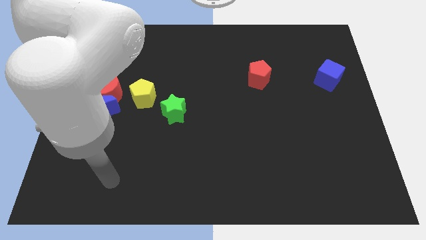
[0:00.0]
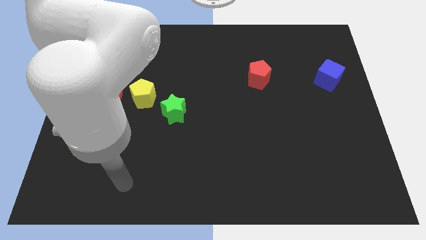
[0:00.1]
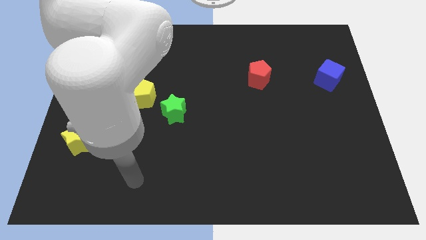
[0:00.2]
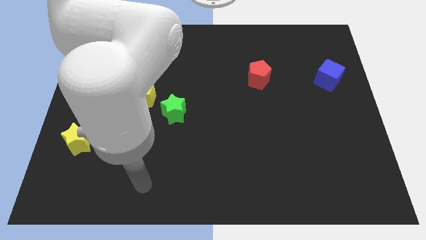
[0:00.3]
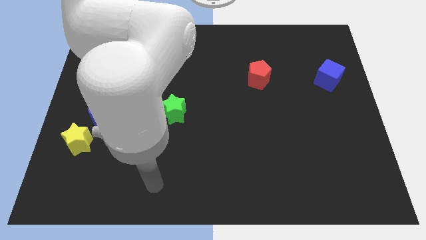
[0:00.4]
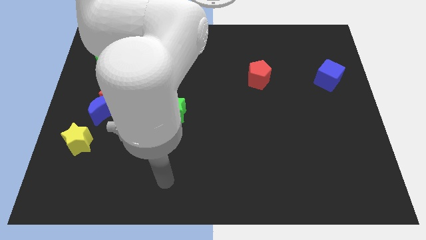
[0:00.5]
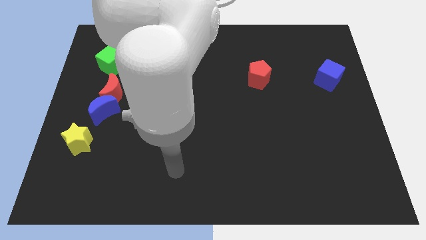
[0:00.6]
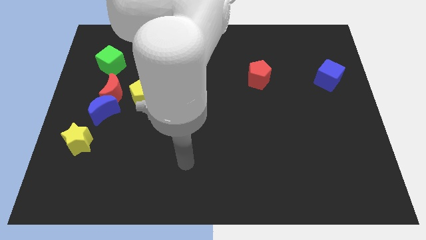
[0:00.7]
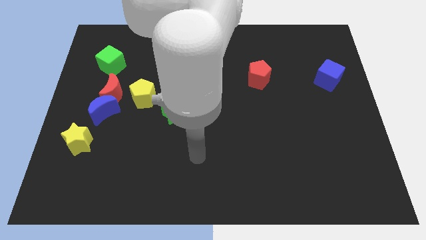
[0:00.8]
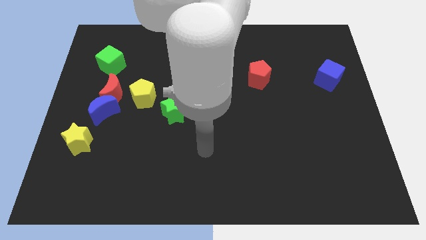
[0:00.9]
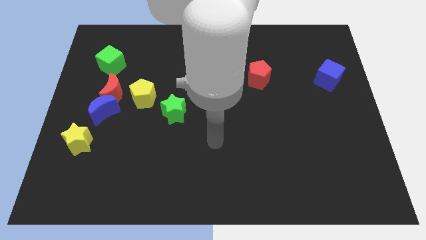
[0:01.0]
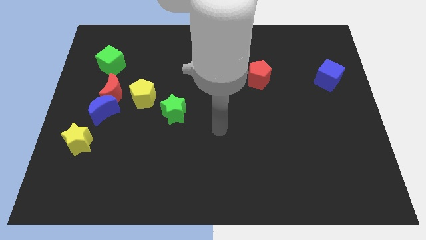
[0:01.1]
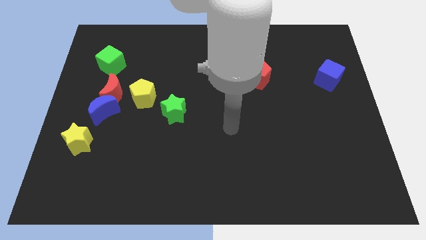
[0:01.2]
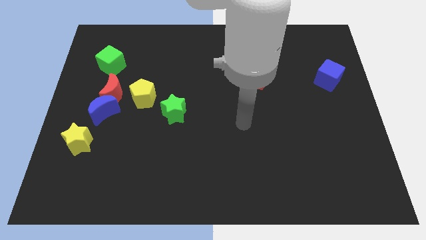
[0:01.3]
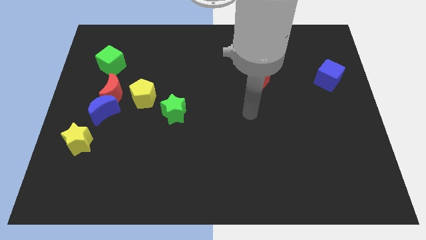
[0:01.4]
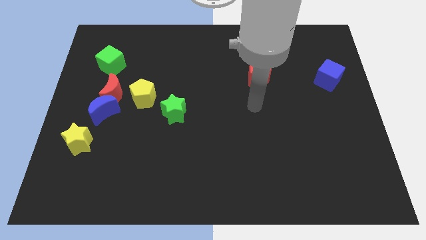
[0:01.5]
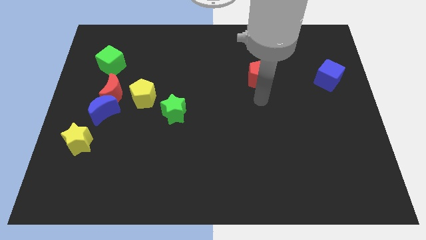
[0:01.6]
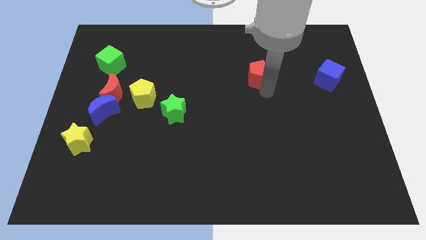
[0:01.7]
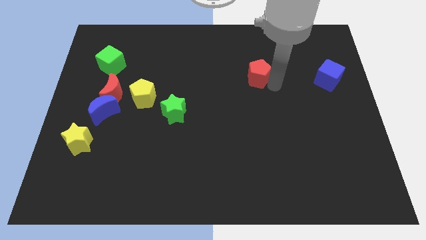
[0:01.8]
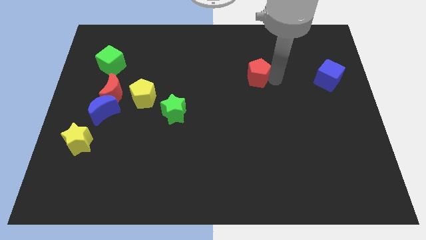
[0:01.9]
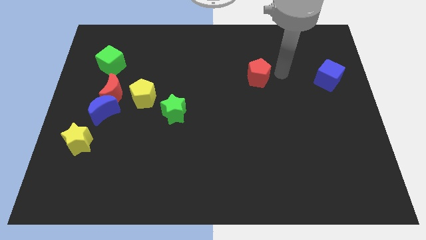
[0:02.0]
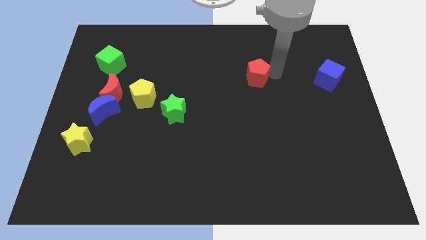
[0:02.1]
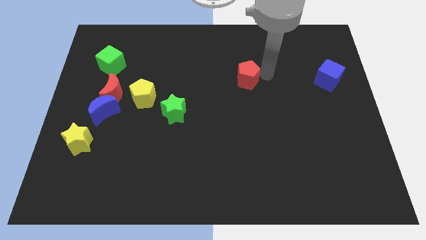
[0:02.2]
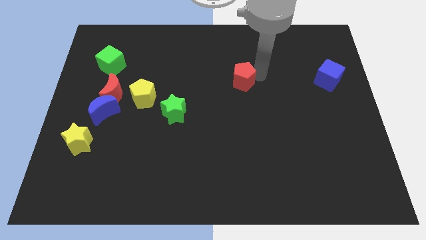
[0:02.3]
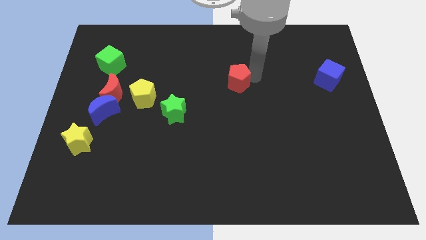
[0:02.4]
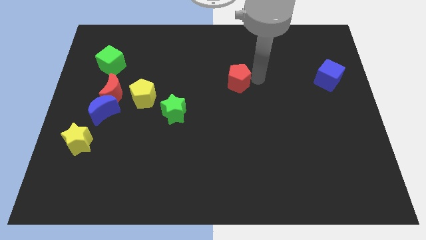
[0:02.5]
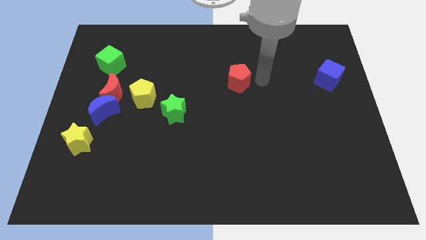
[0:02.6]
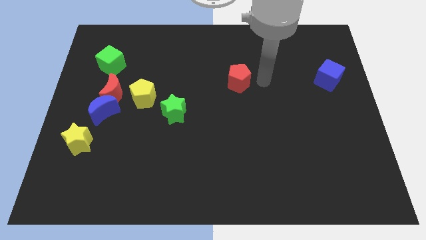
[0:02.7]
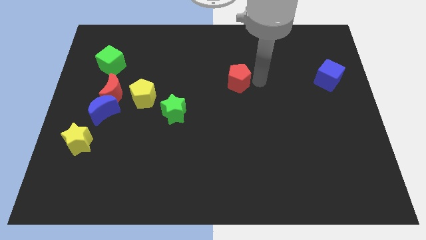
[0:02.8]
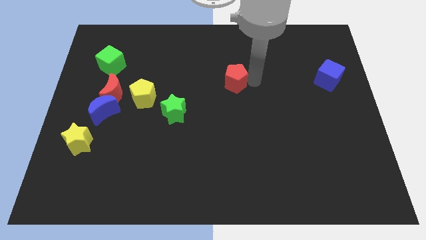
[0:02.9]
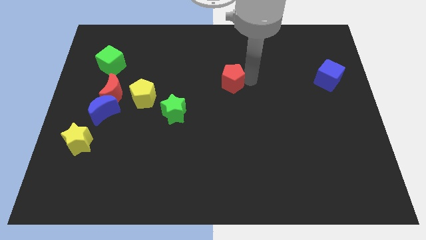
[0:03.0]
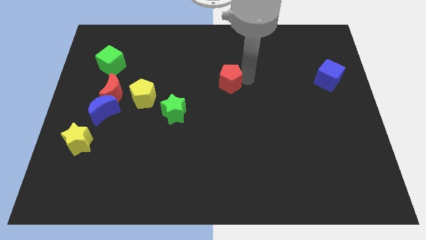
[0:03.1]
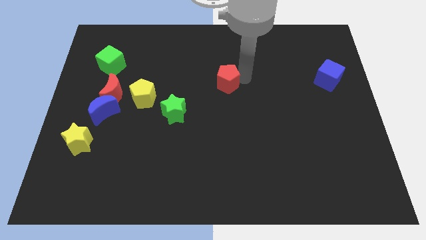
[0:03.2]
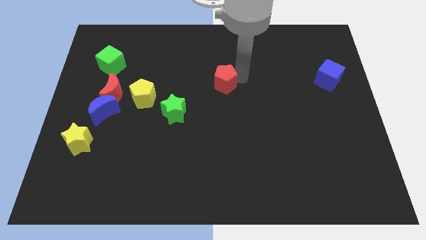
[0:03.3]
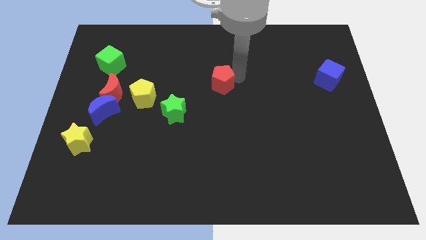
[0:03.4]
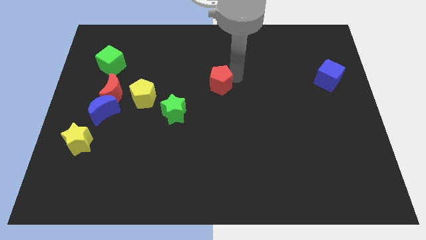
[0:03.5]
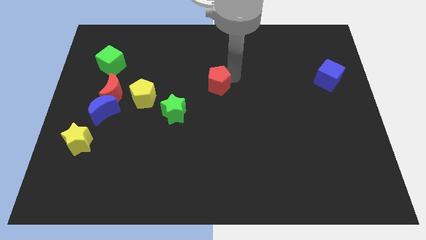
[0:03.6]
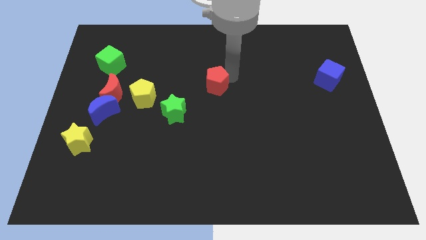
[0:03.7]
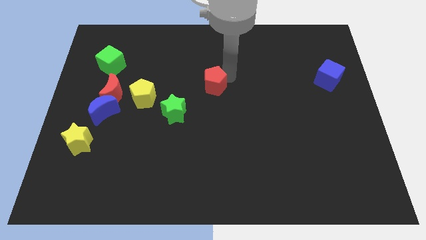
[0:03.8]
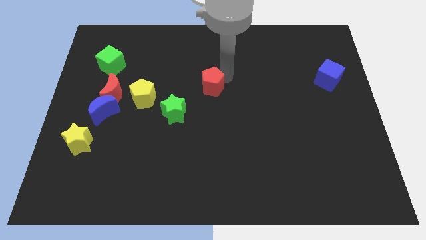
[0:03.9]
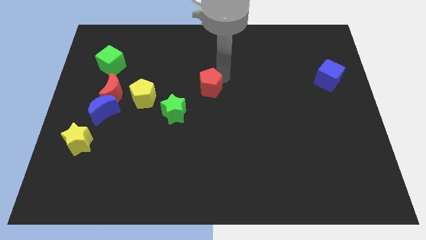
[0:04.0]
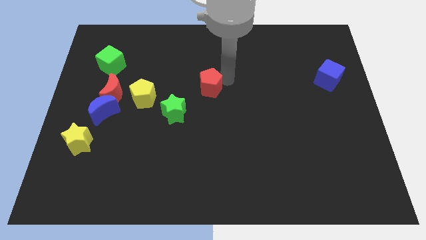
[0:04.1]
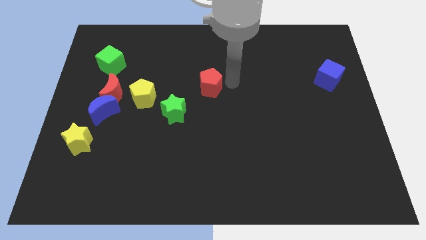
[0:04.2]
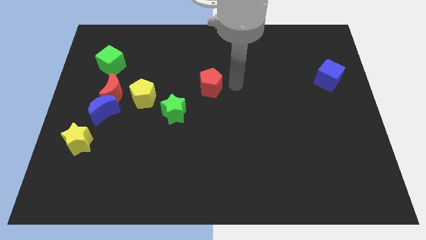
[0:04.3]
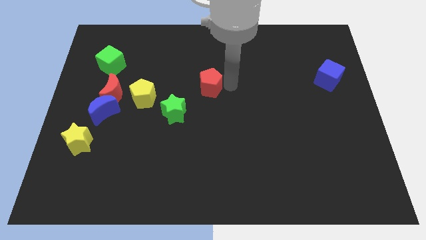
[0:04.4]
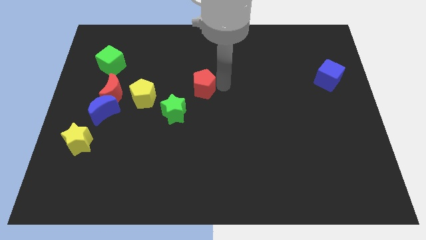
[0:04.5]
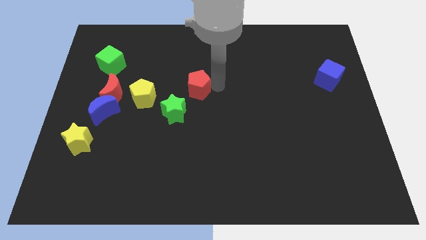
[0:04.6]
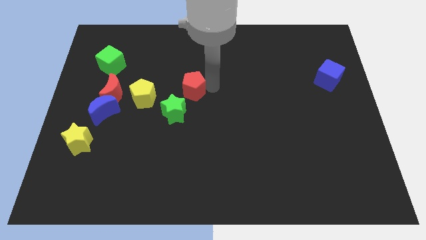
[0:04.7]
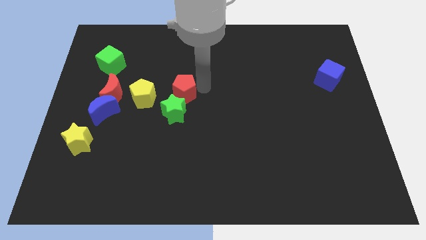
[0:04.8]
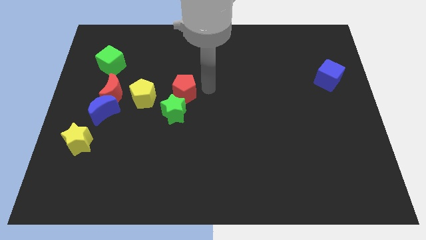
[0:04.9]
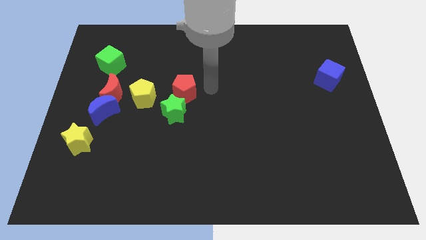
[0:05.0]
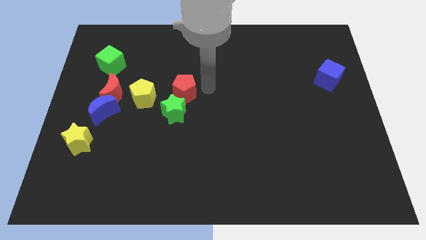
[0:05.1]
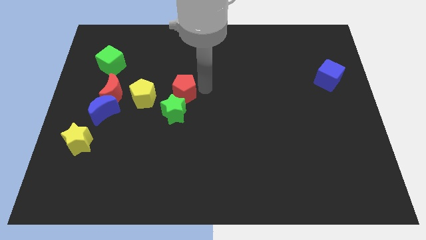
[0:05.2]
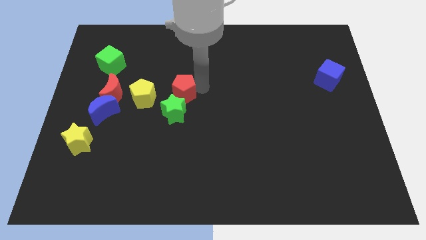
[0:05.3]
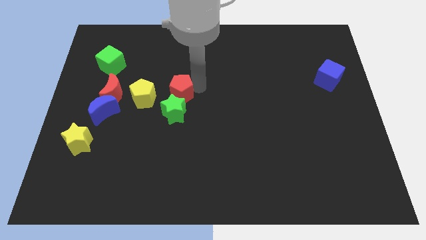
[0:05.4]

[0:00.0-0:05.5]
slide the red pentagon just right of the red moon

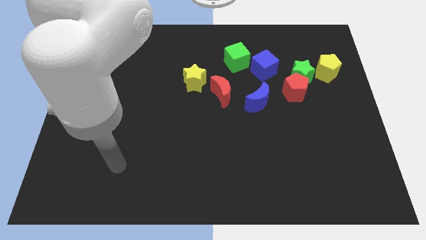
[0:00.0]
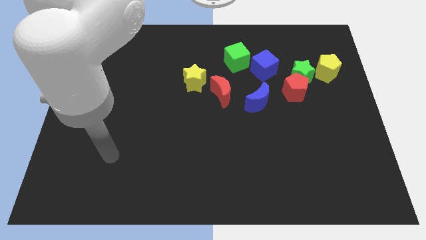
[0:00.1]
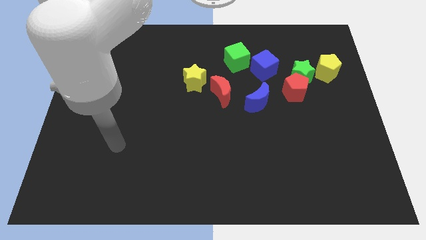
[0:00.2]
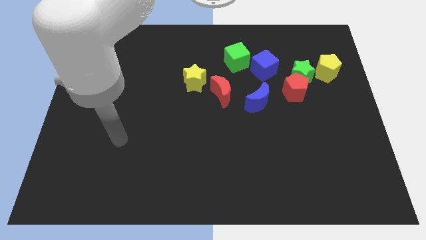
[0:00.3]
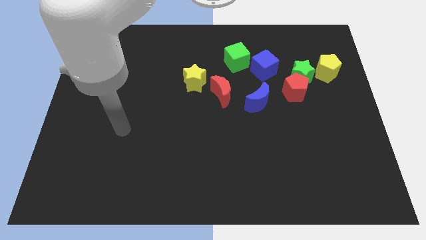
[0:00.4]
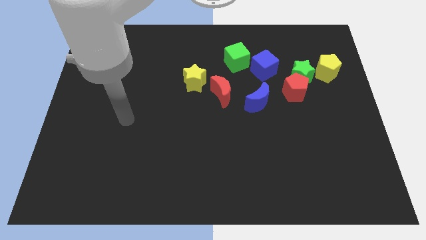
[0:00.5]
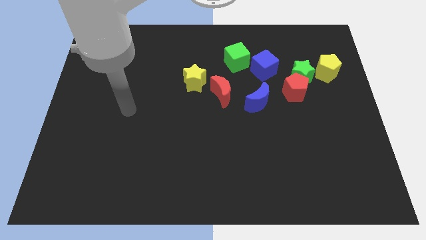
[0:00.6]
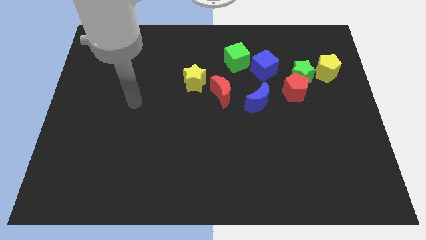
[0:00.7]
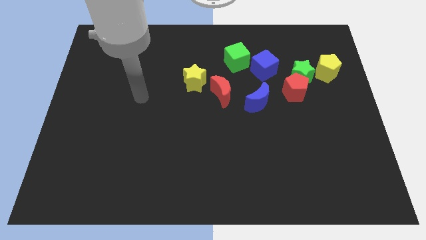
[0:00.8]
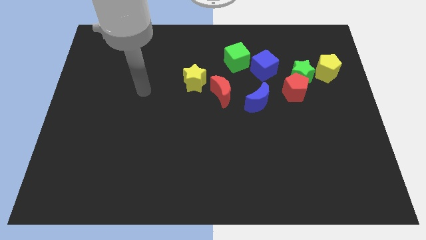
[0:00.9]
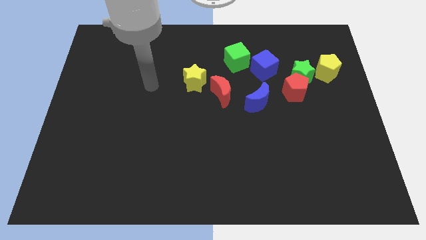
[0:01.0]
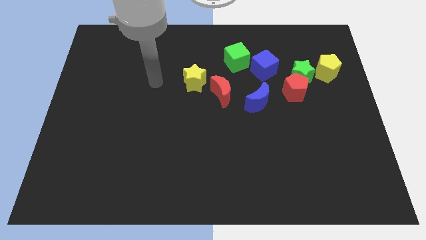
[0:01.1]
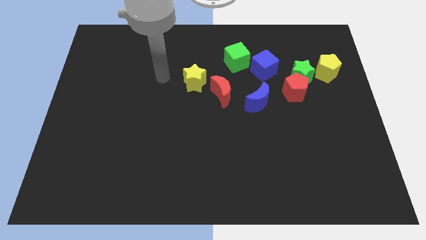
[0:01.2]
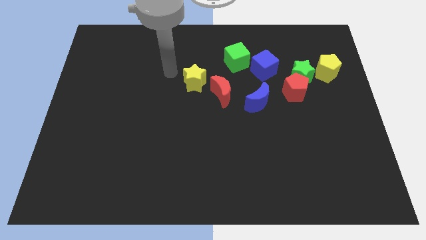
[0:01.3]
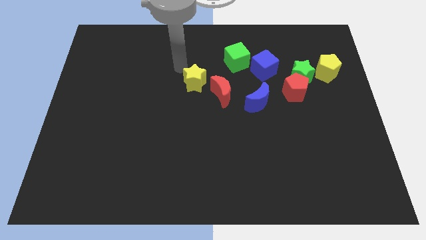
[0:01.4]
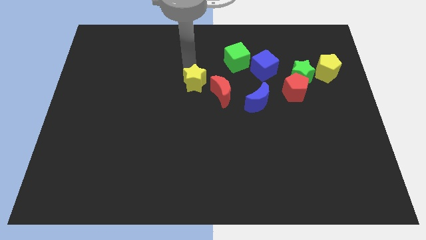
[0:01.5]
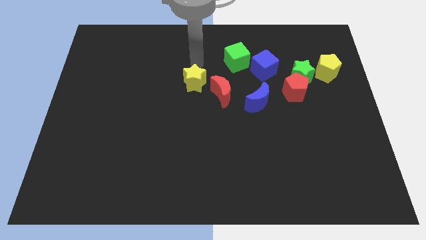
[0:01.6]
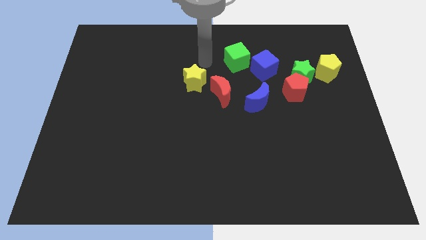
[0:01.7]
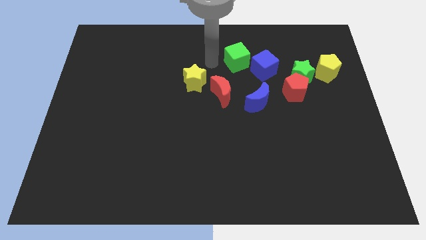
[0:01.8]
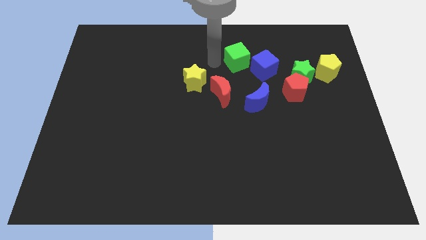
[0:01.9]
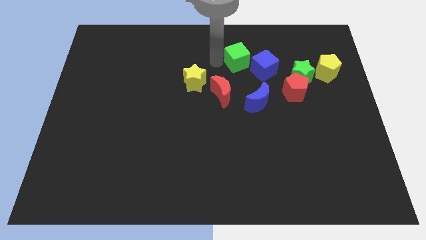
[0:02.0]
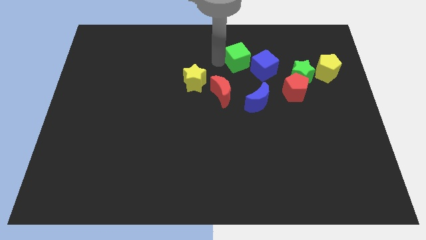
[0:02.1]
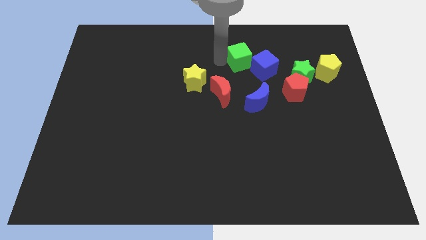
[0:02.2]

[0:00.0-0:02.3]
push the green cube to the top of the blue moon
